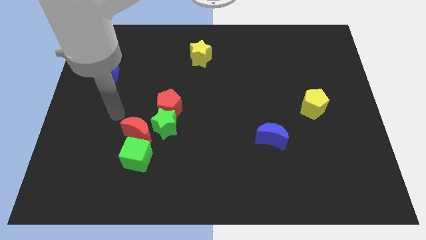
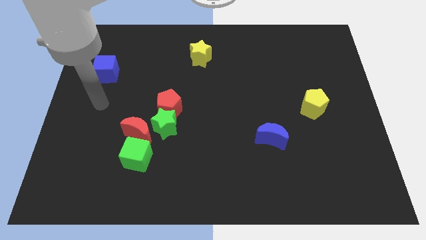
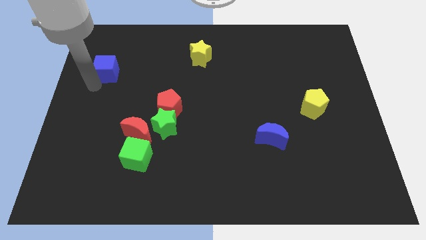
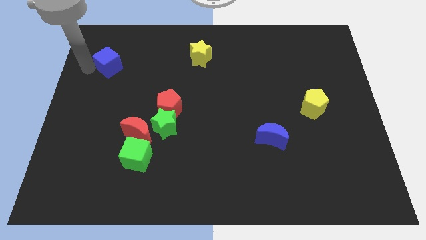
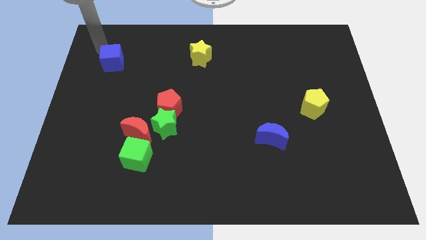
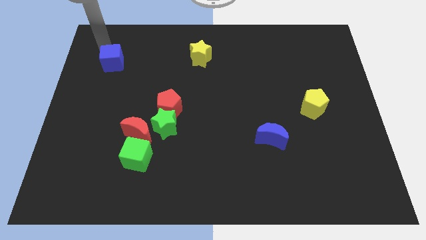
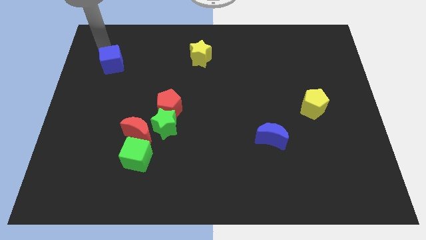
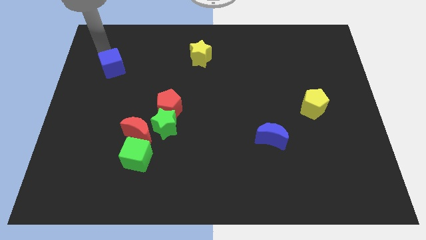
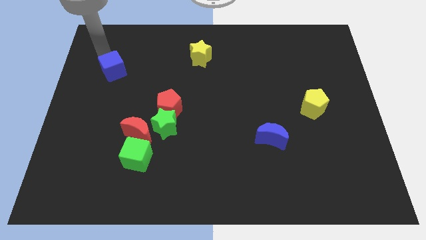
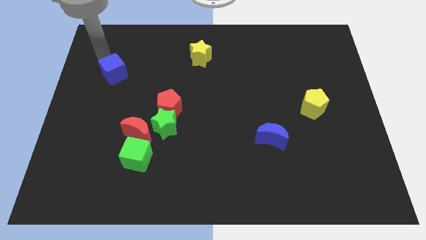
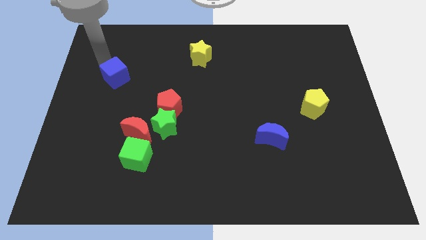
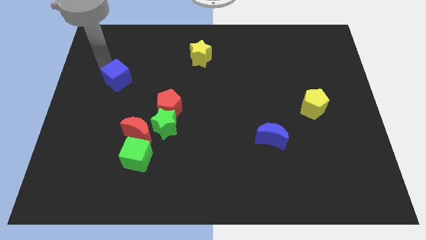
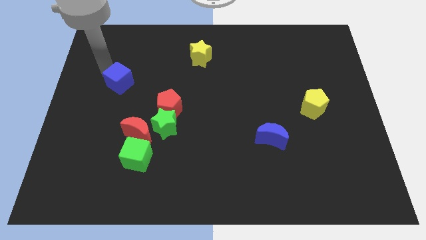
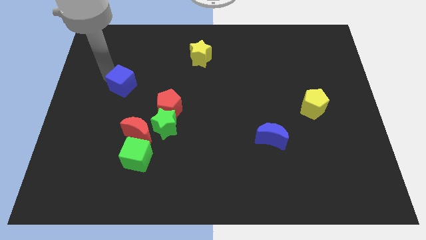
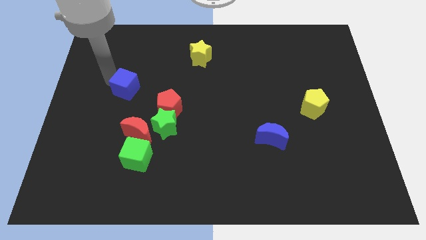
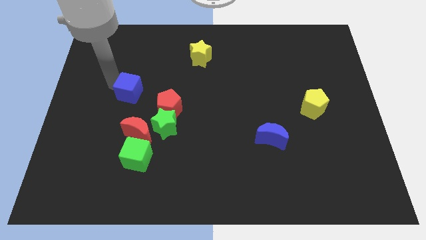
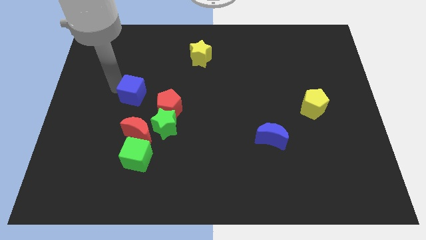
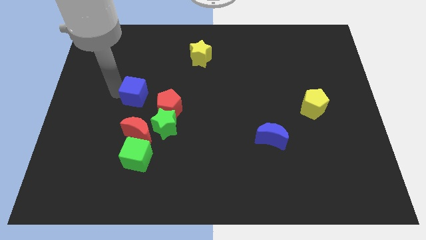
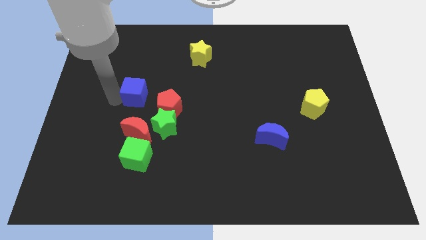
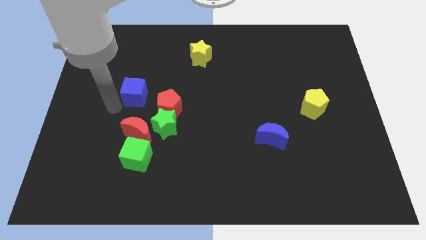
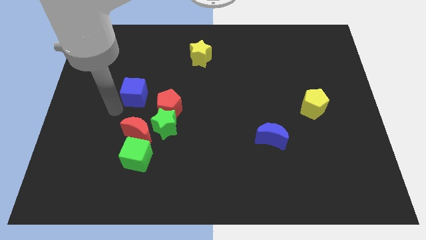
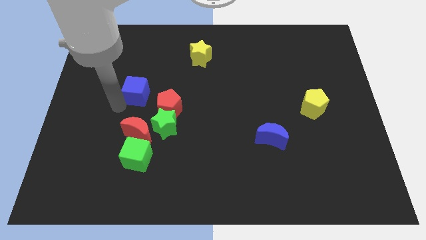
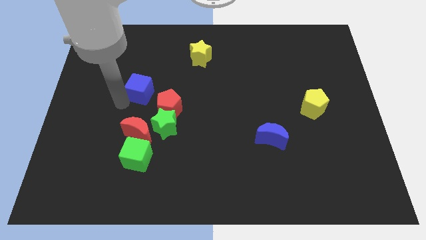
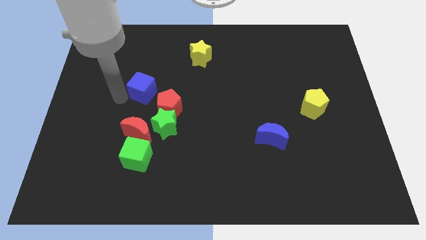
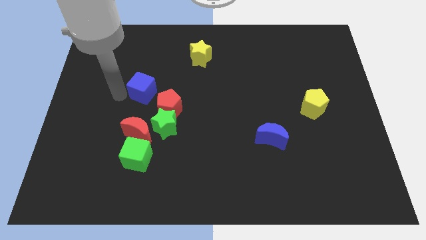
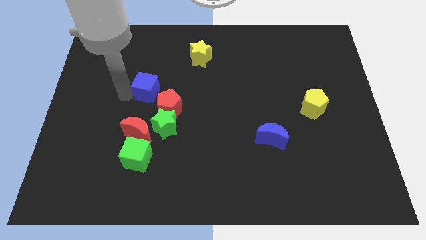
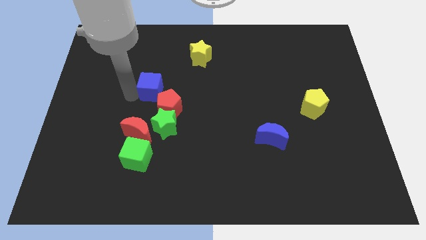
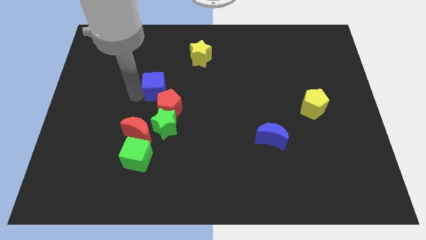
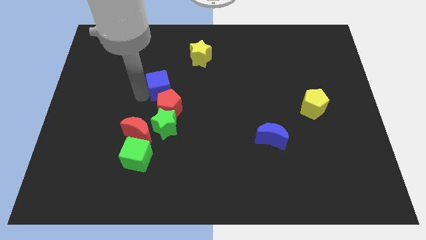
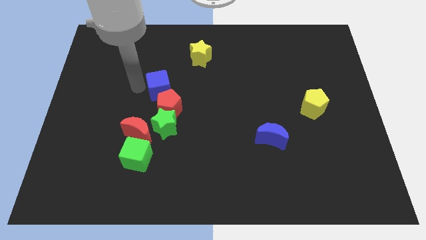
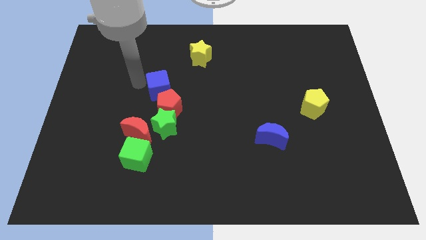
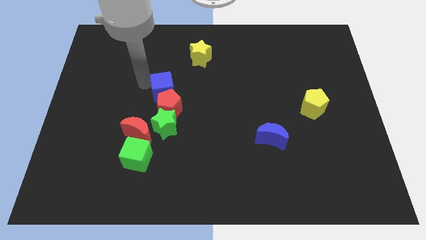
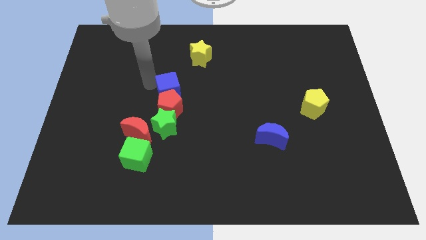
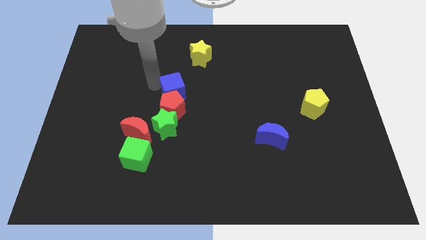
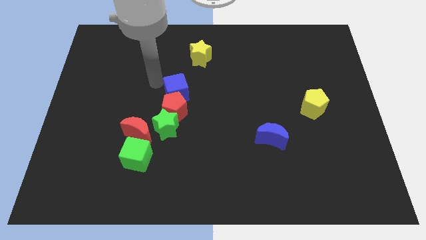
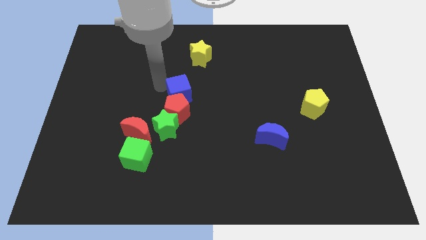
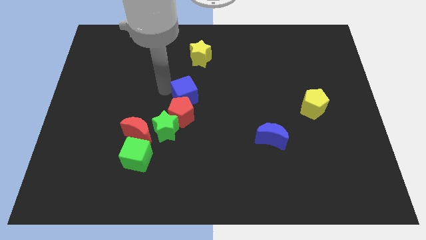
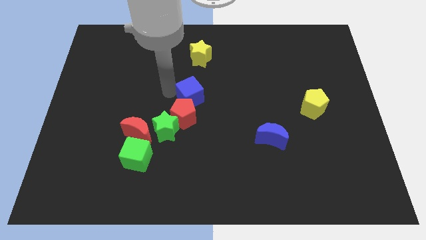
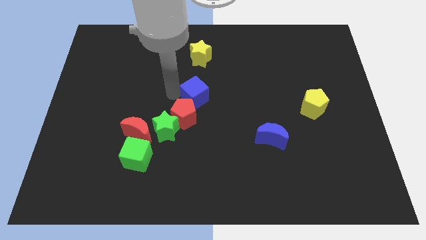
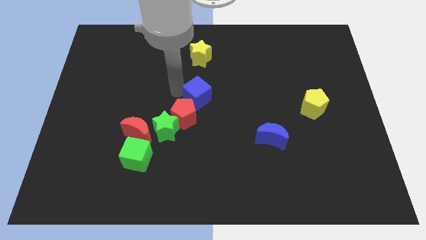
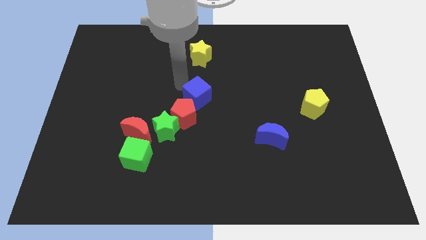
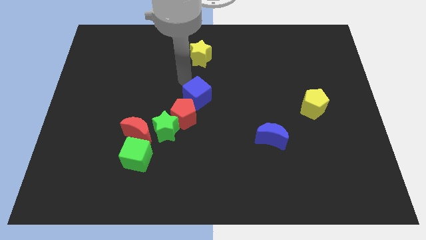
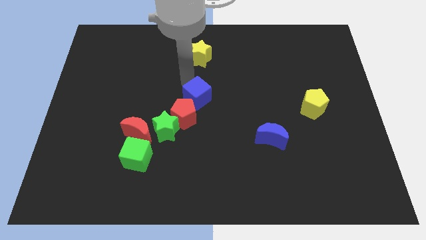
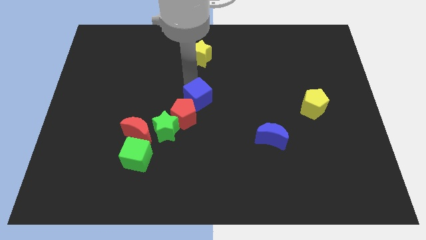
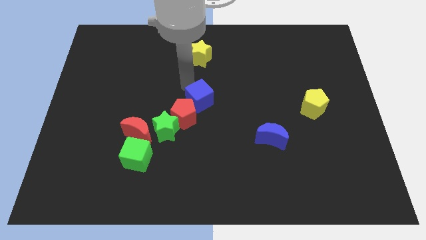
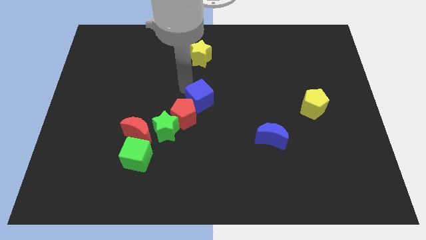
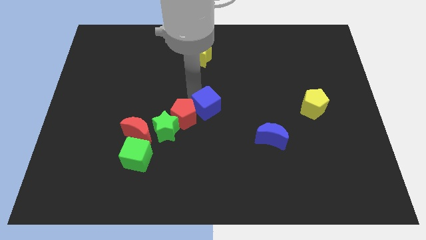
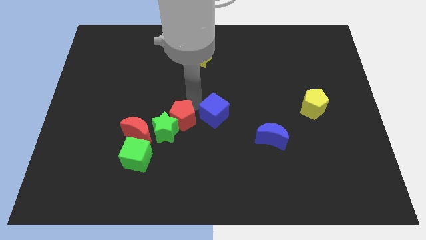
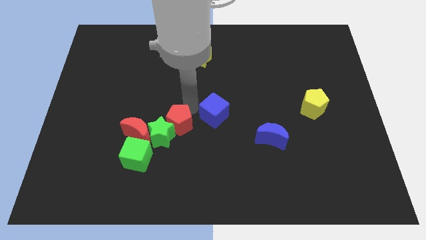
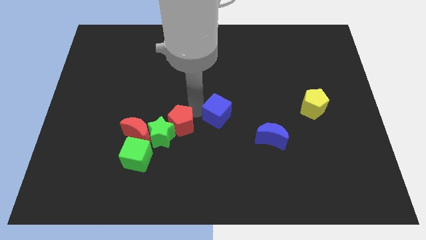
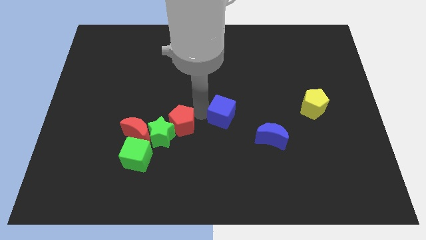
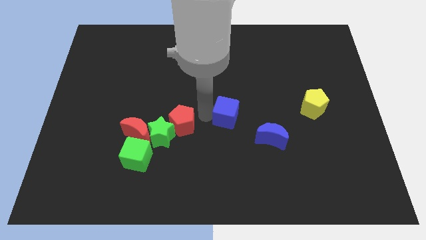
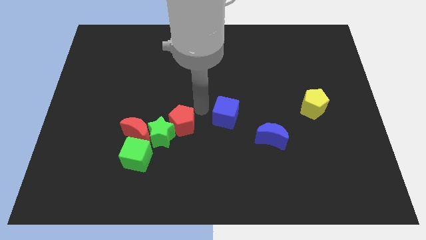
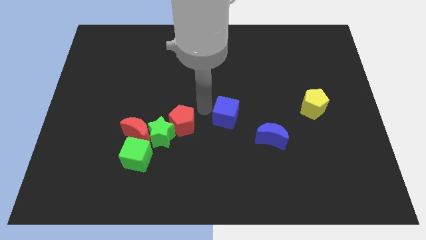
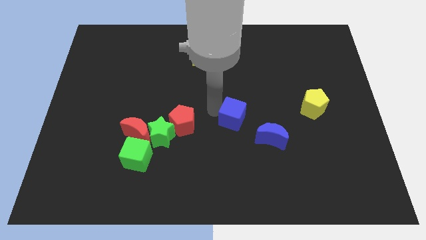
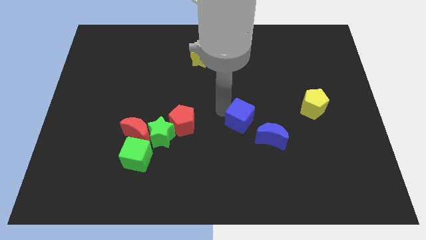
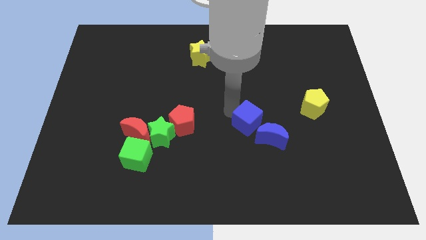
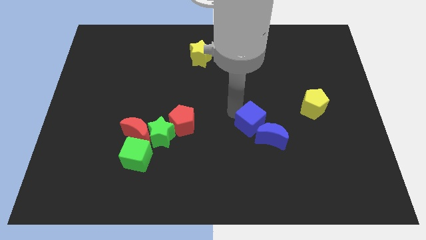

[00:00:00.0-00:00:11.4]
move the blue cube towards the blue moon

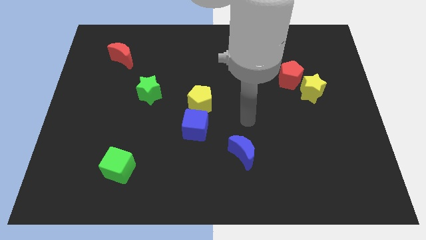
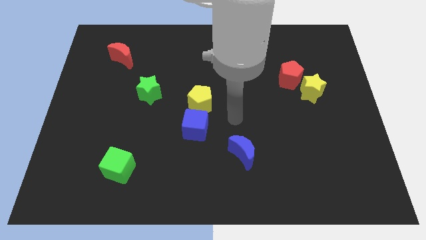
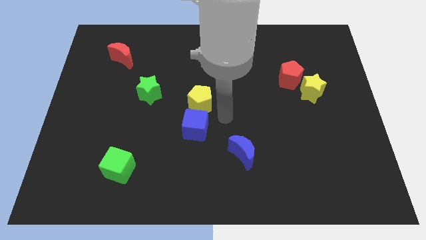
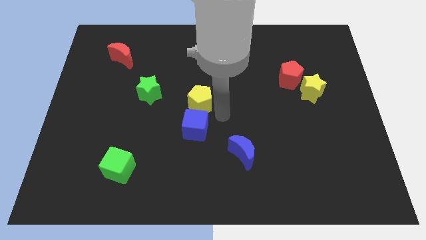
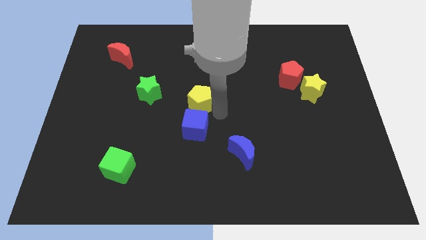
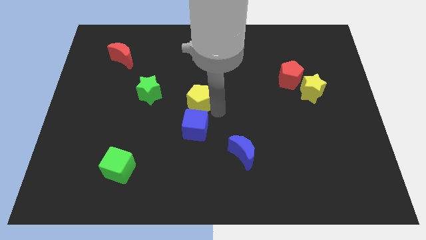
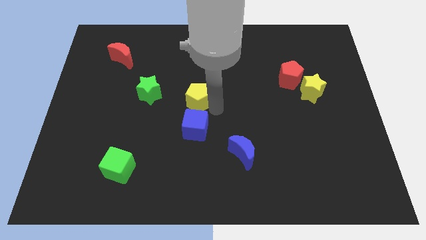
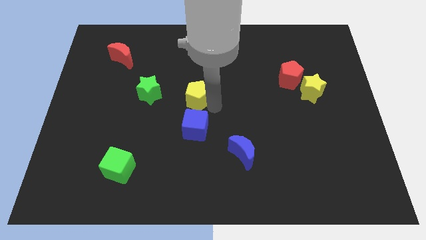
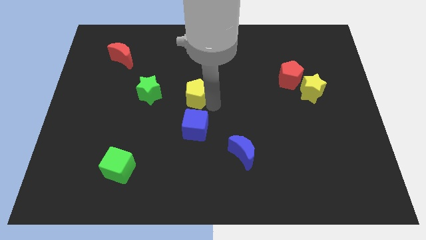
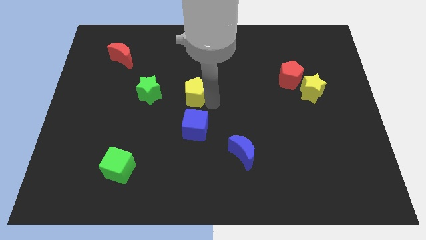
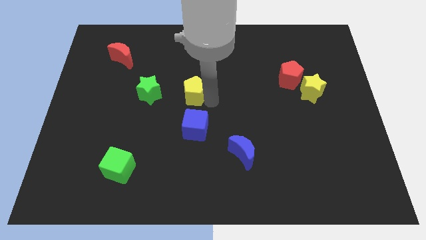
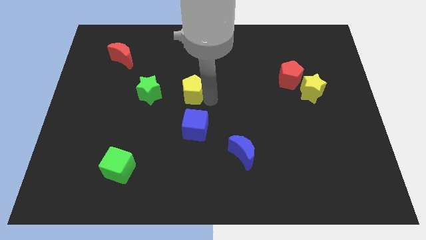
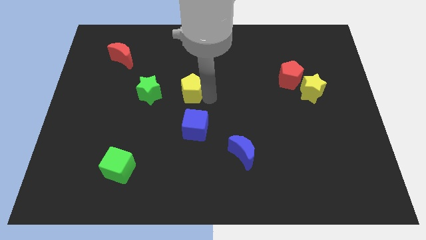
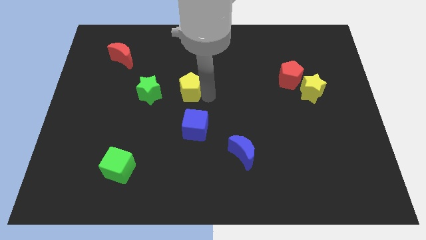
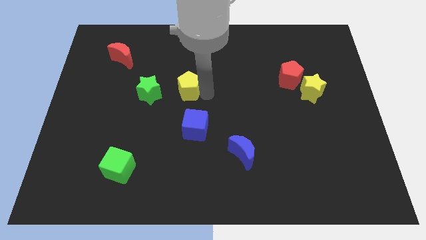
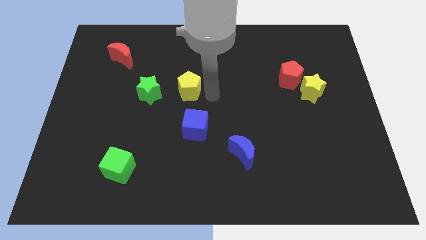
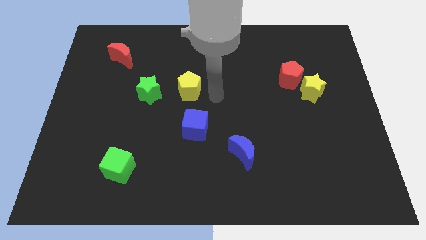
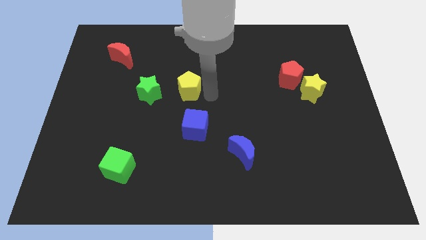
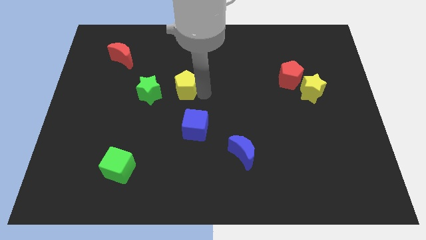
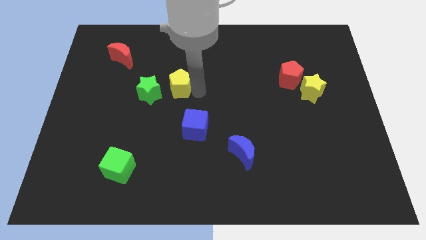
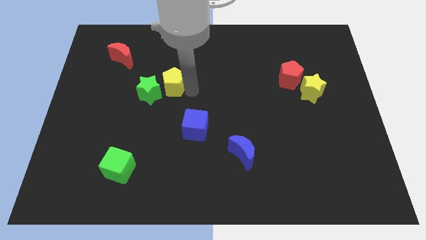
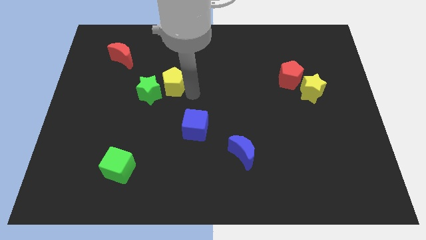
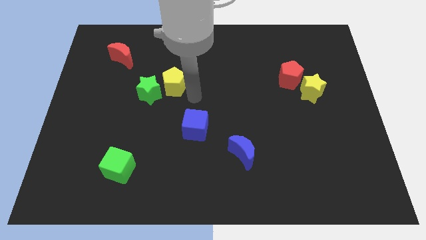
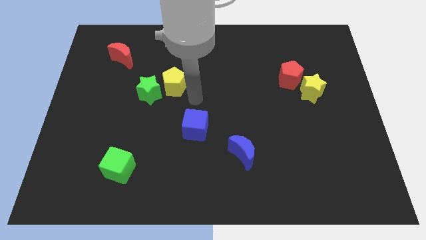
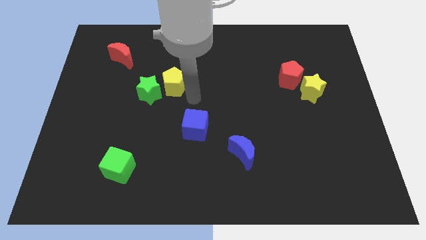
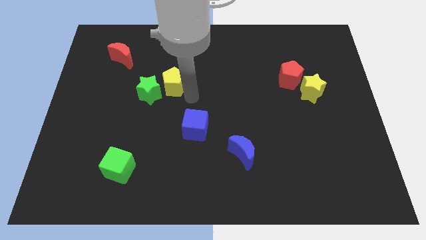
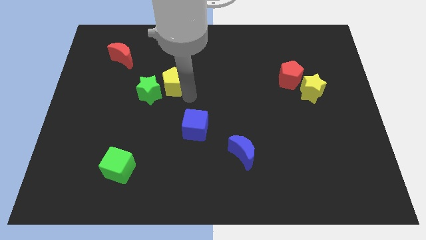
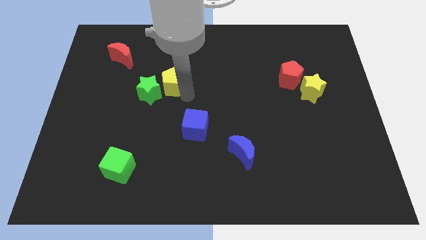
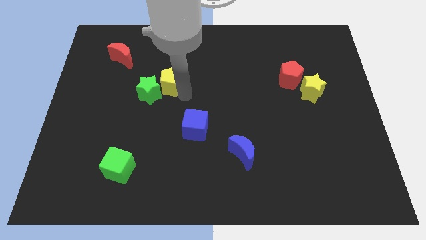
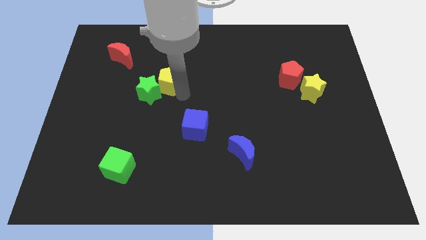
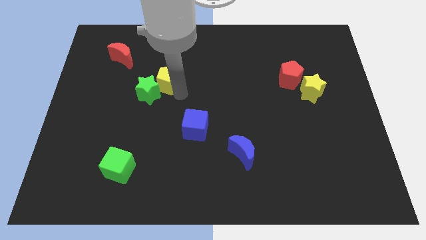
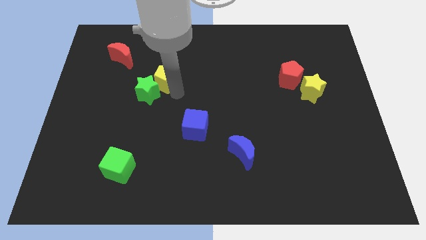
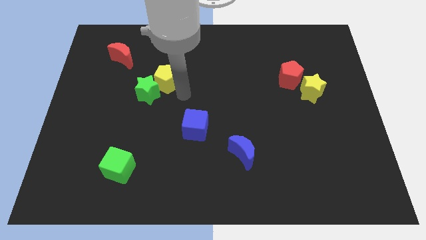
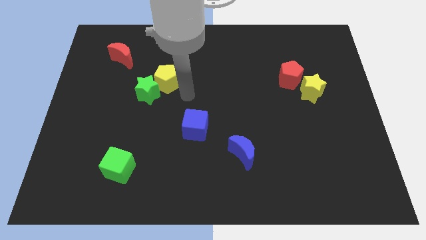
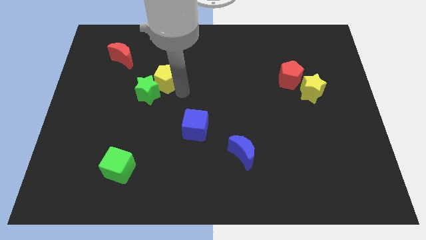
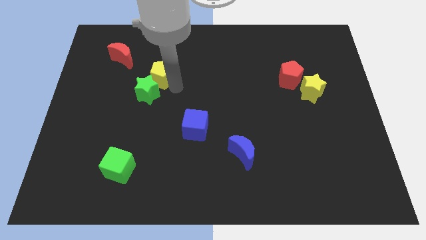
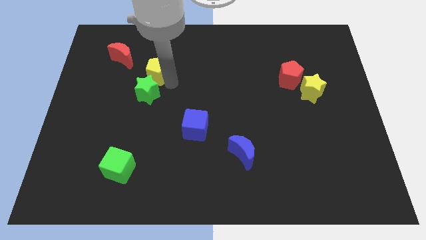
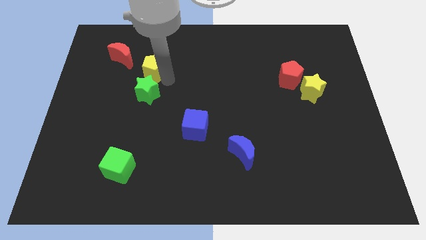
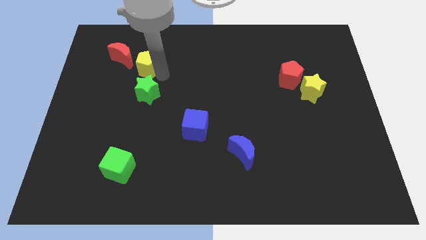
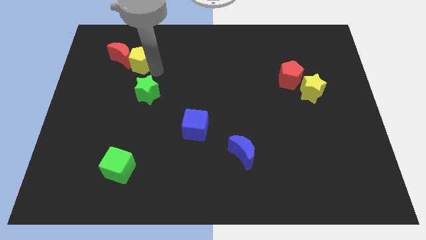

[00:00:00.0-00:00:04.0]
slide the yellow pentagon to the red moon
